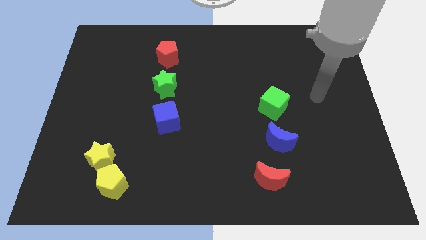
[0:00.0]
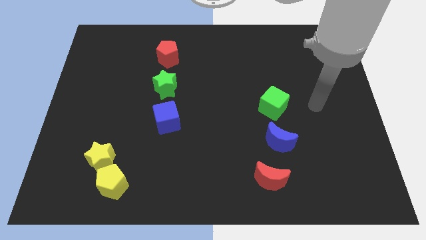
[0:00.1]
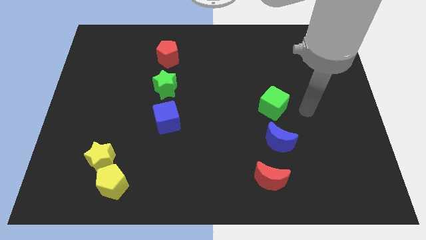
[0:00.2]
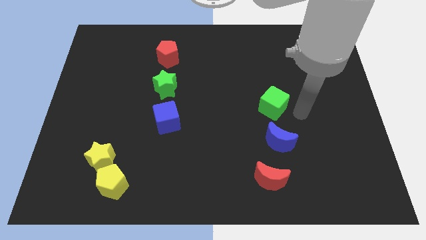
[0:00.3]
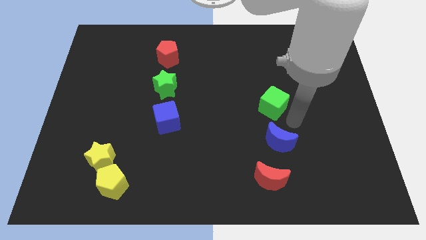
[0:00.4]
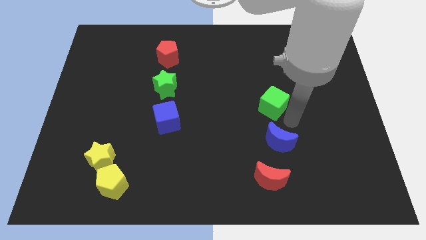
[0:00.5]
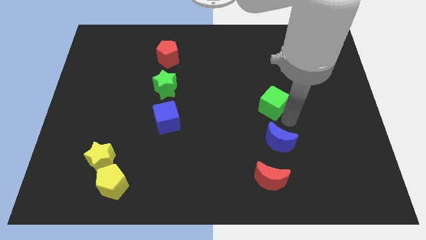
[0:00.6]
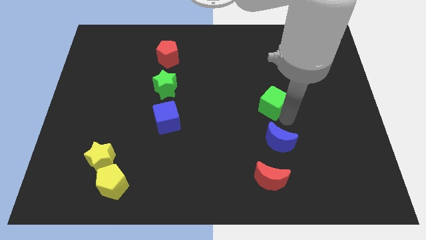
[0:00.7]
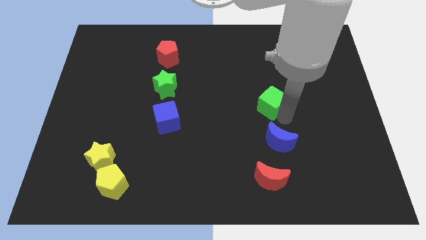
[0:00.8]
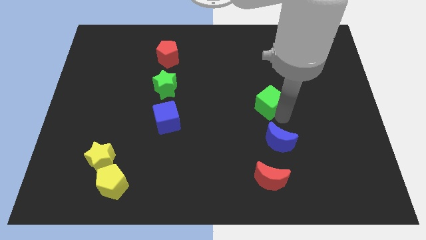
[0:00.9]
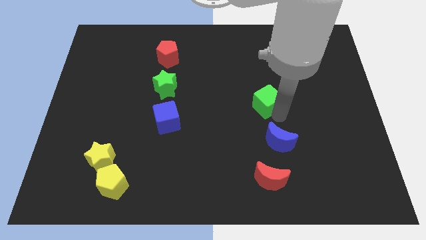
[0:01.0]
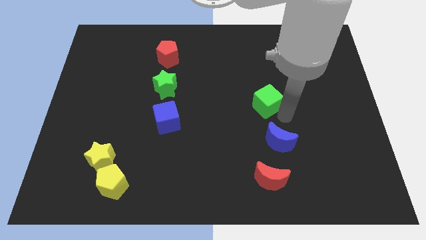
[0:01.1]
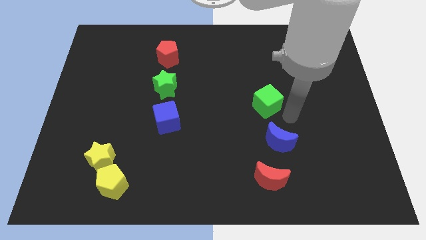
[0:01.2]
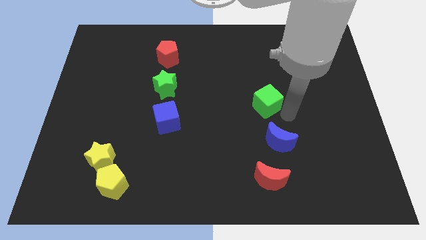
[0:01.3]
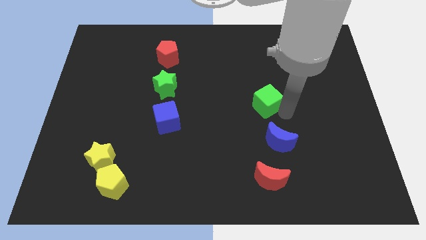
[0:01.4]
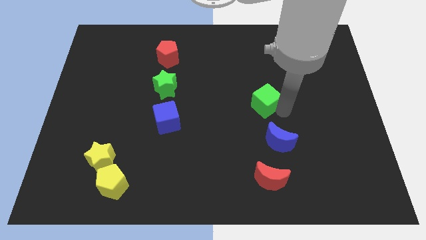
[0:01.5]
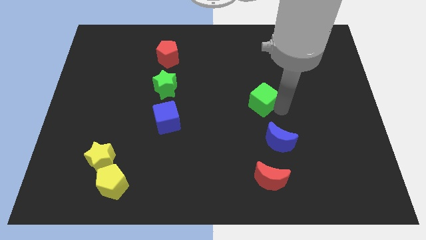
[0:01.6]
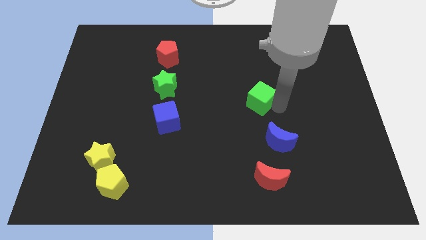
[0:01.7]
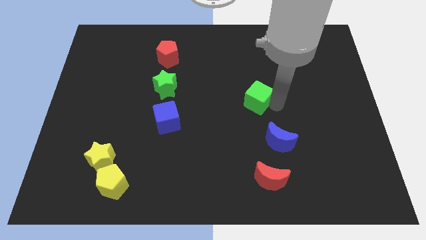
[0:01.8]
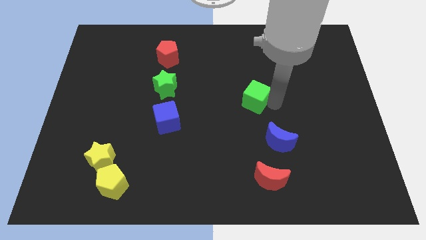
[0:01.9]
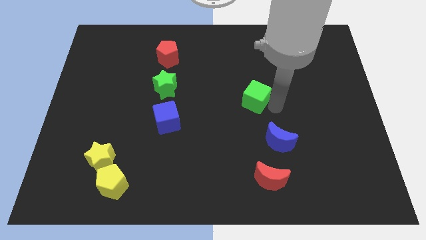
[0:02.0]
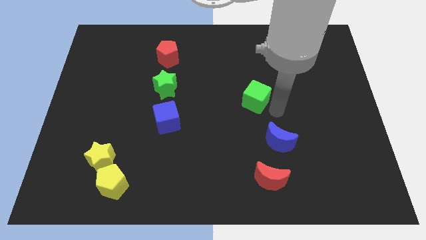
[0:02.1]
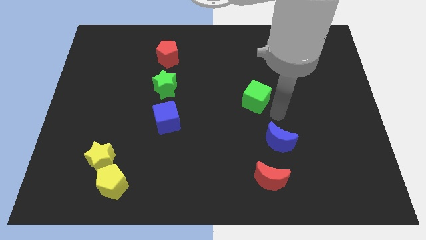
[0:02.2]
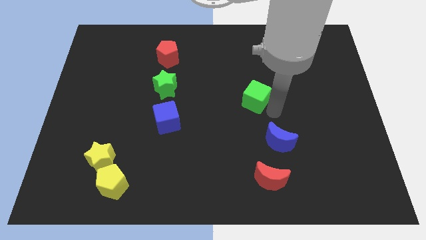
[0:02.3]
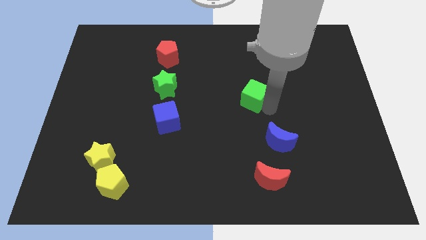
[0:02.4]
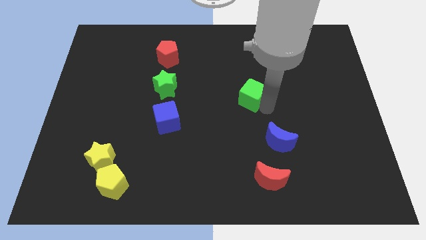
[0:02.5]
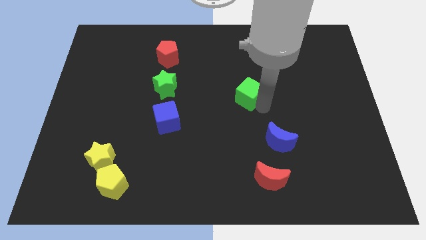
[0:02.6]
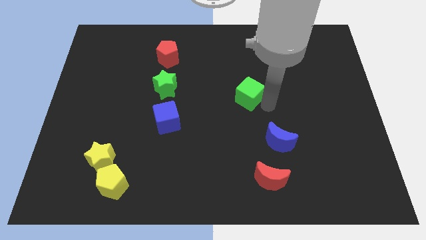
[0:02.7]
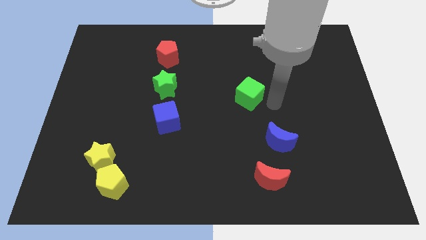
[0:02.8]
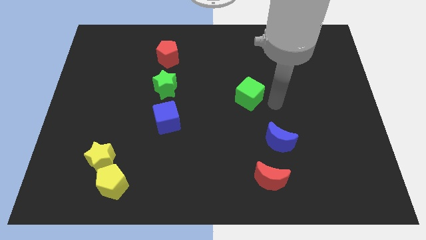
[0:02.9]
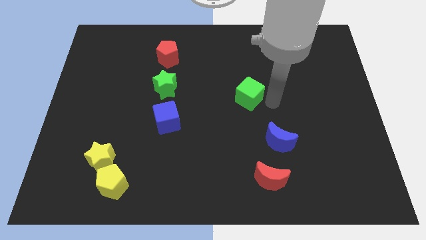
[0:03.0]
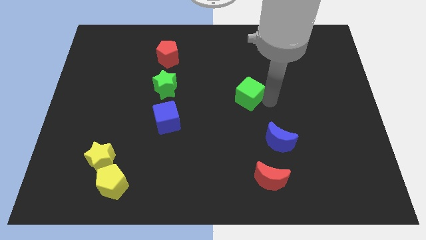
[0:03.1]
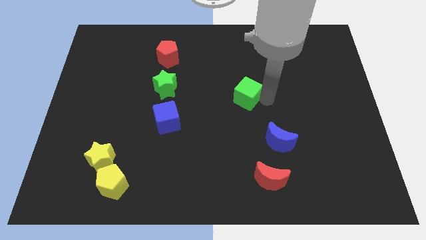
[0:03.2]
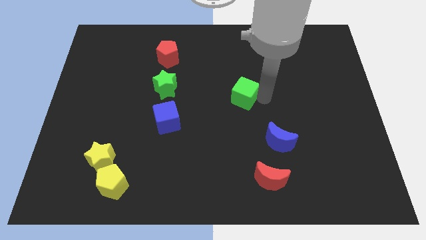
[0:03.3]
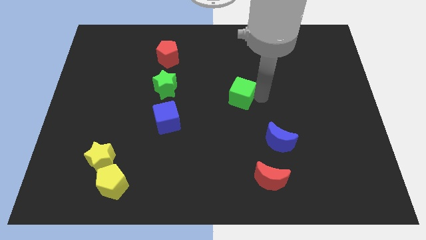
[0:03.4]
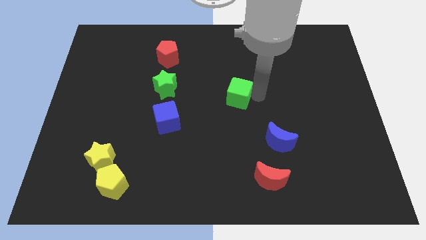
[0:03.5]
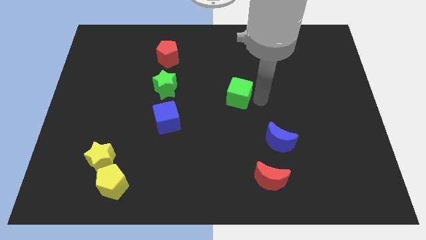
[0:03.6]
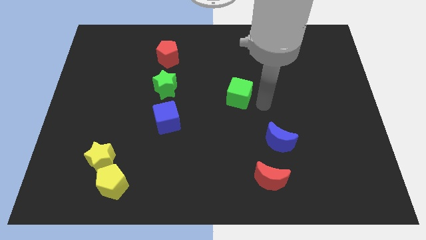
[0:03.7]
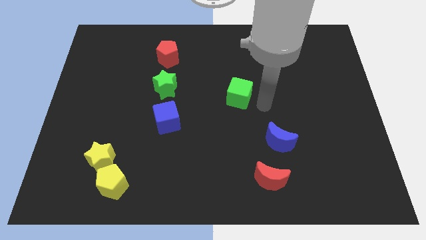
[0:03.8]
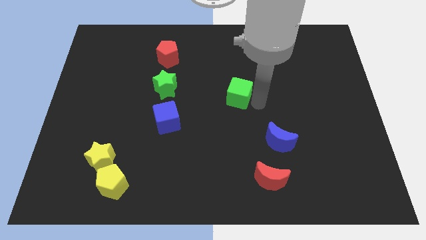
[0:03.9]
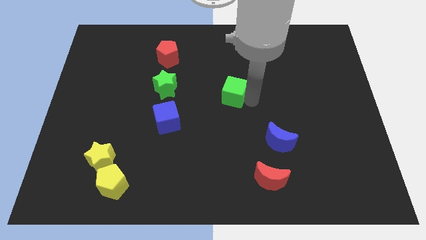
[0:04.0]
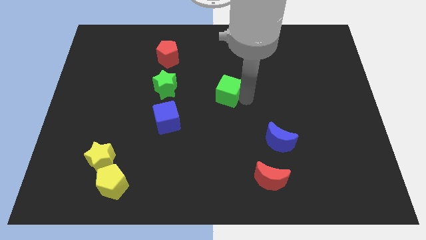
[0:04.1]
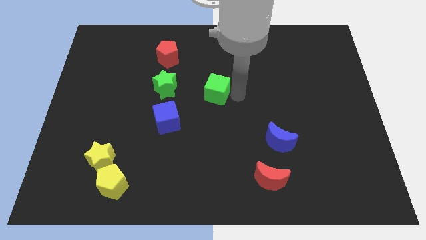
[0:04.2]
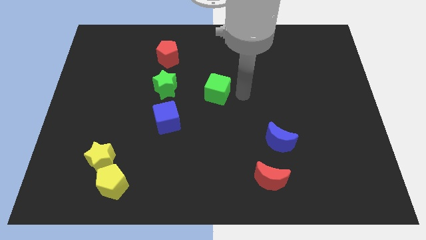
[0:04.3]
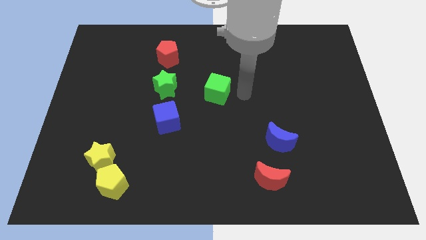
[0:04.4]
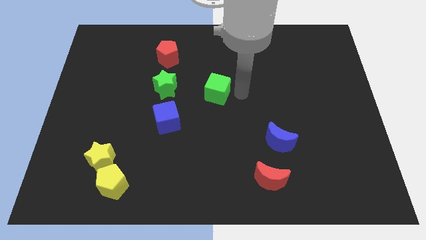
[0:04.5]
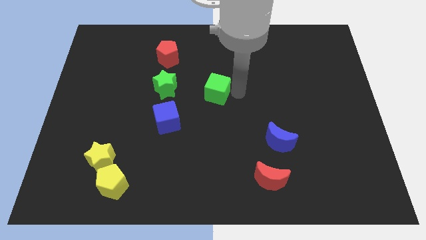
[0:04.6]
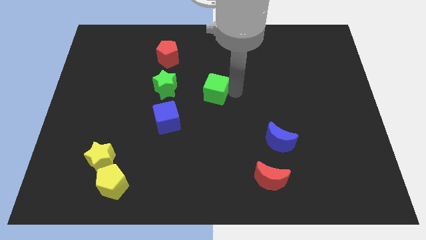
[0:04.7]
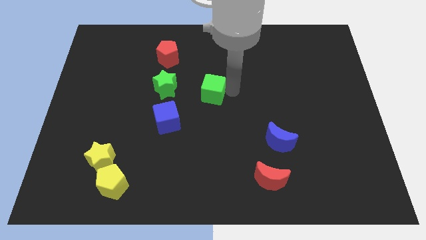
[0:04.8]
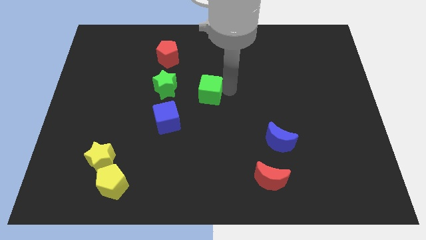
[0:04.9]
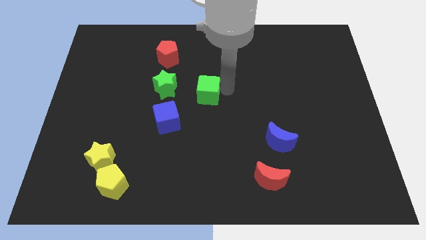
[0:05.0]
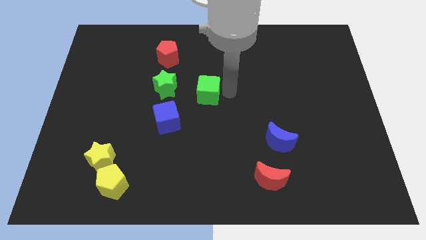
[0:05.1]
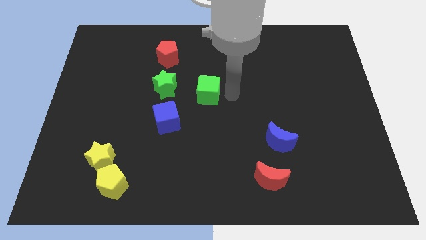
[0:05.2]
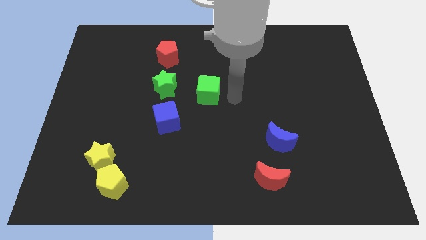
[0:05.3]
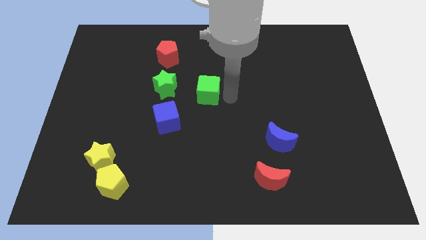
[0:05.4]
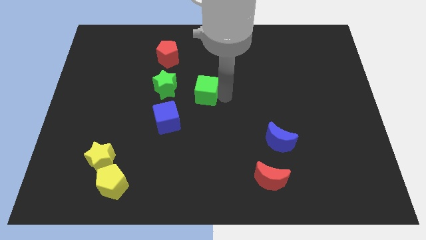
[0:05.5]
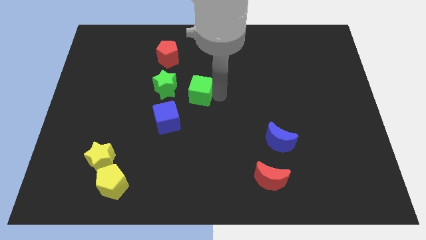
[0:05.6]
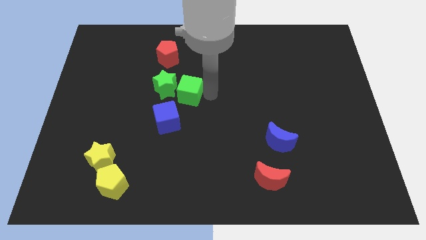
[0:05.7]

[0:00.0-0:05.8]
push the green cube to the green star

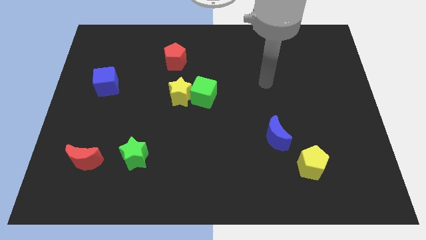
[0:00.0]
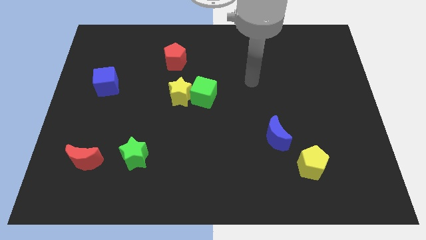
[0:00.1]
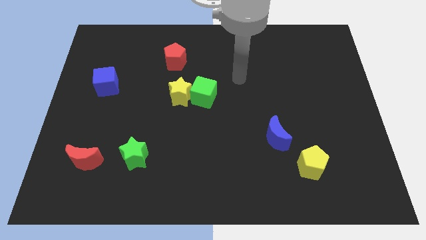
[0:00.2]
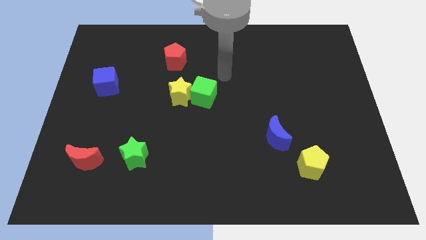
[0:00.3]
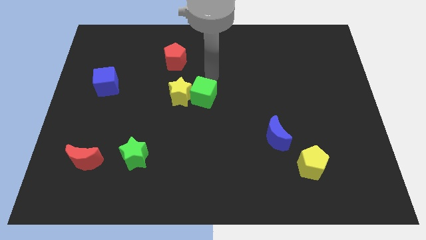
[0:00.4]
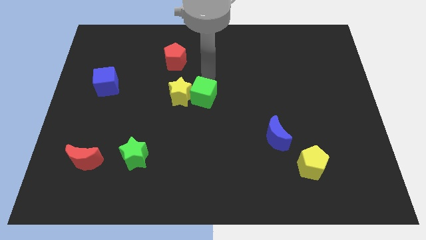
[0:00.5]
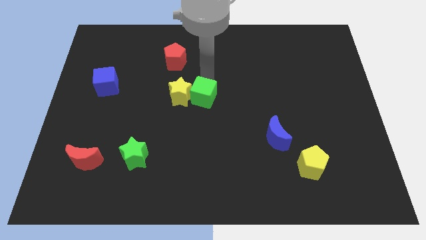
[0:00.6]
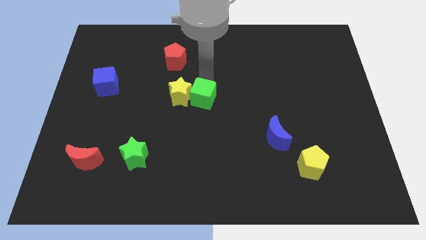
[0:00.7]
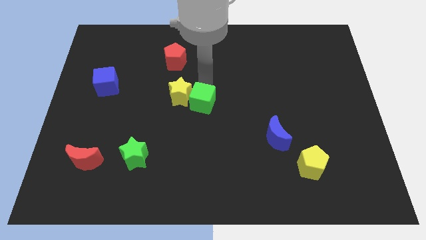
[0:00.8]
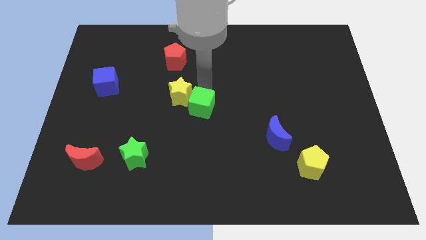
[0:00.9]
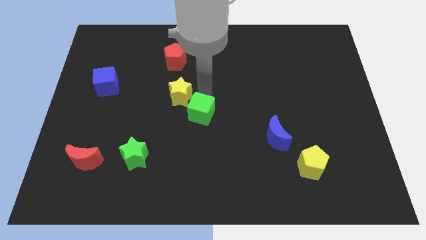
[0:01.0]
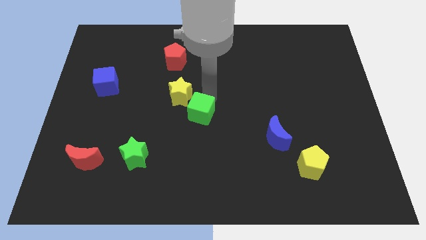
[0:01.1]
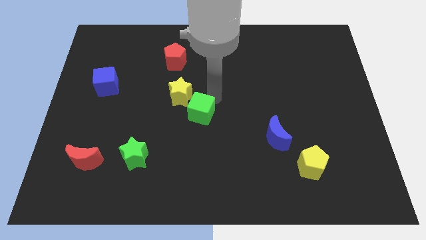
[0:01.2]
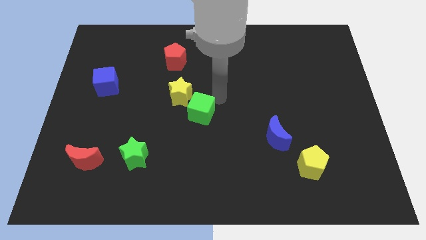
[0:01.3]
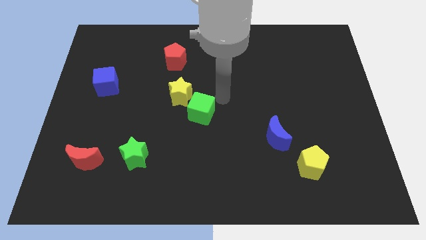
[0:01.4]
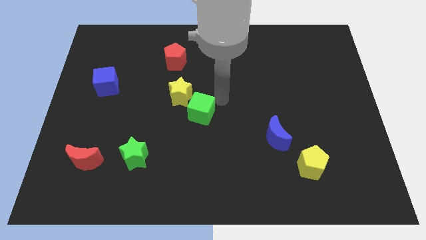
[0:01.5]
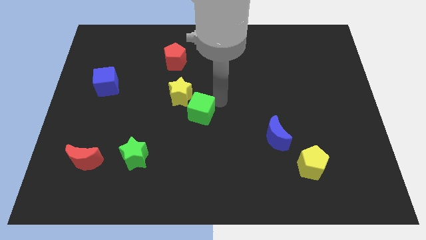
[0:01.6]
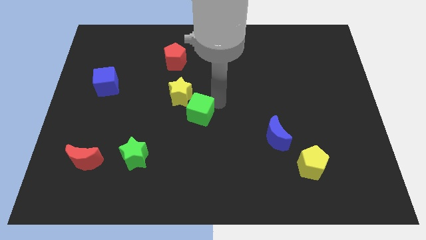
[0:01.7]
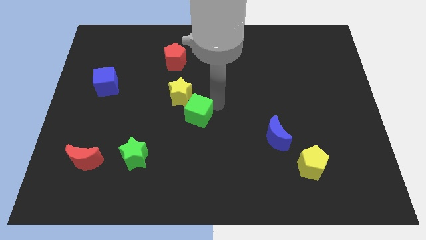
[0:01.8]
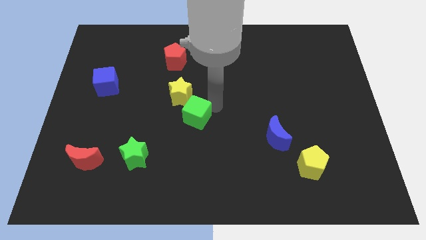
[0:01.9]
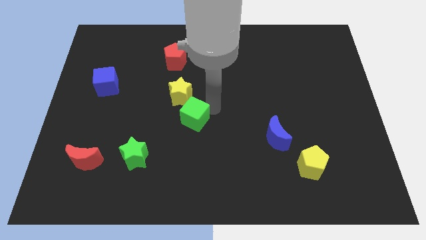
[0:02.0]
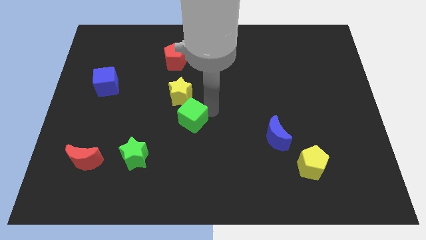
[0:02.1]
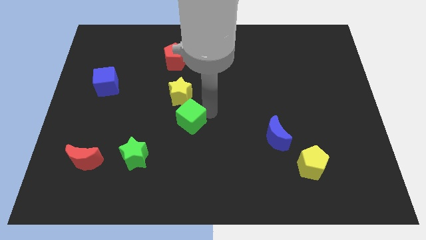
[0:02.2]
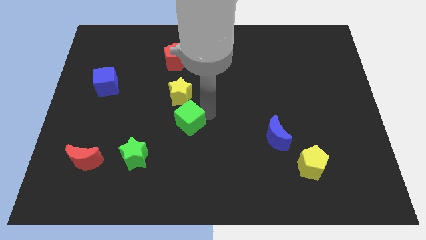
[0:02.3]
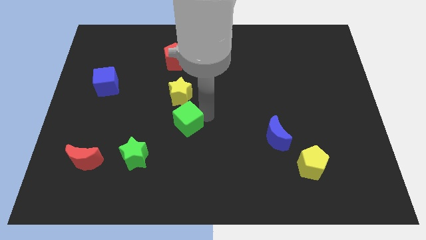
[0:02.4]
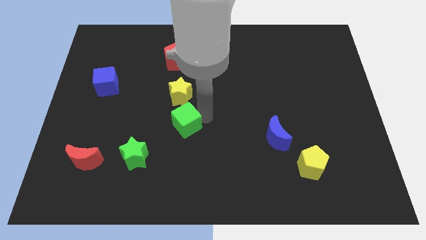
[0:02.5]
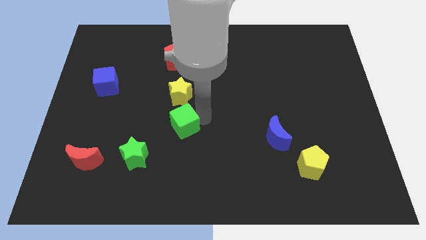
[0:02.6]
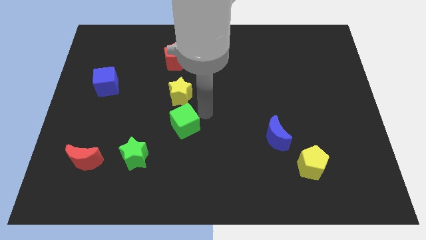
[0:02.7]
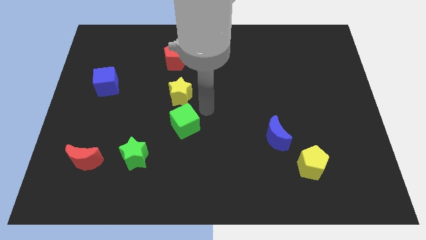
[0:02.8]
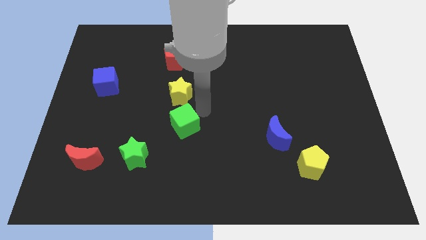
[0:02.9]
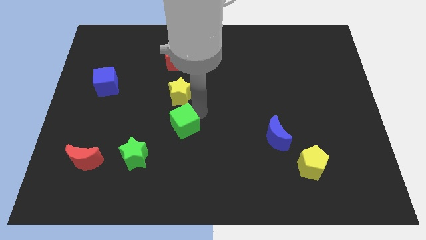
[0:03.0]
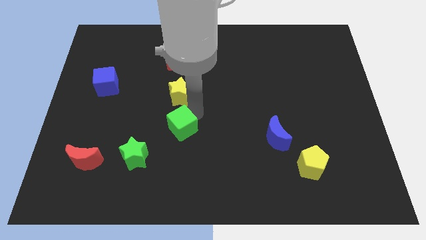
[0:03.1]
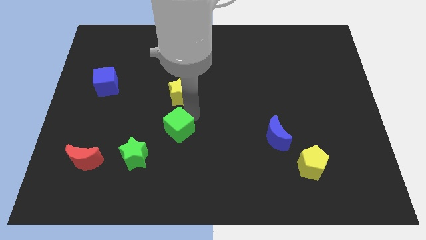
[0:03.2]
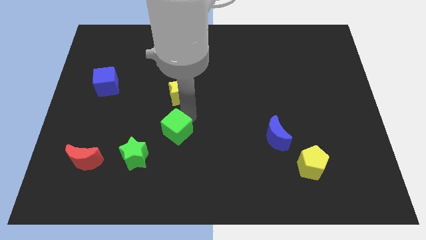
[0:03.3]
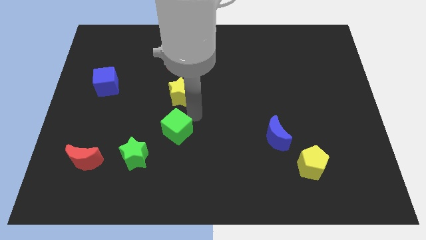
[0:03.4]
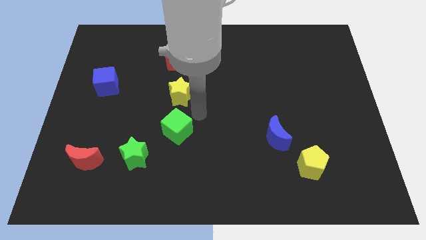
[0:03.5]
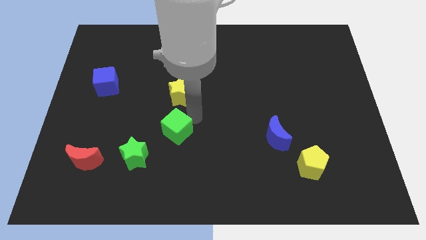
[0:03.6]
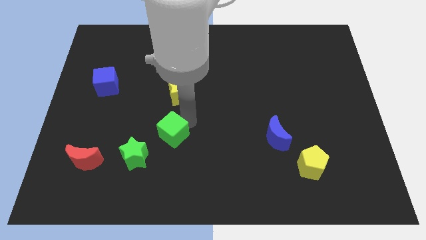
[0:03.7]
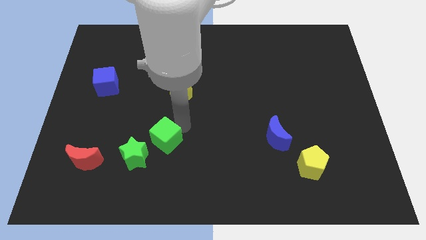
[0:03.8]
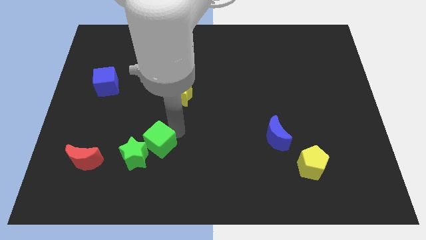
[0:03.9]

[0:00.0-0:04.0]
push the green cube towards the green star
